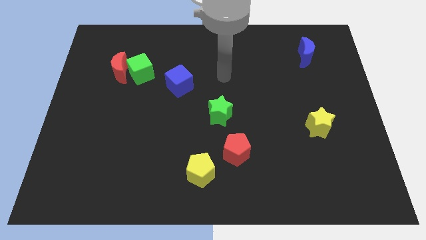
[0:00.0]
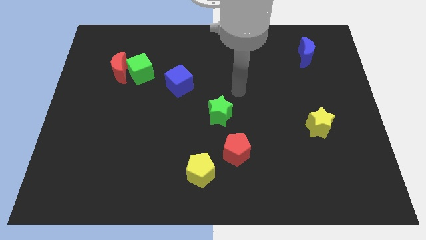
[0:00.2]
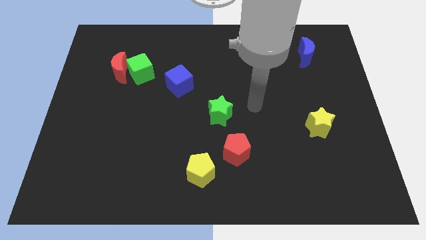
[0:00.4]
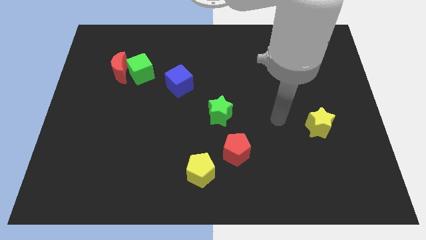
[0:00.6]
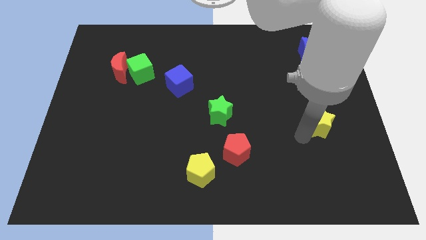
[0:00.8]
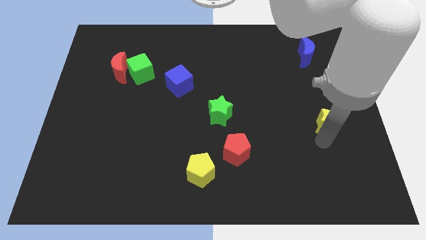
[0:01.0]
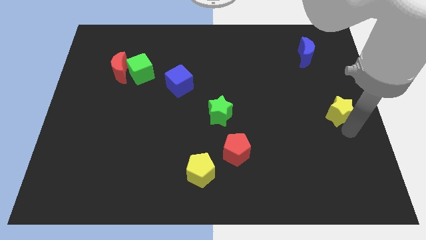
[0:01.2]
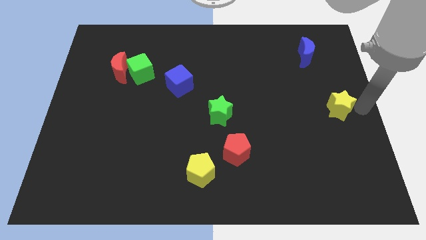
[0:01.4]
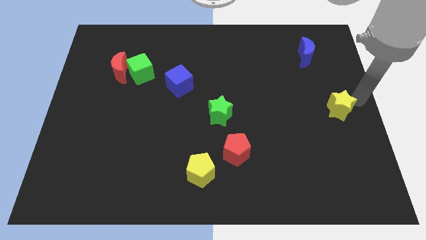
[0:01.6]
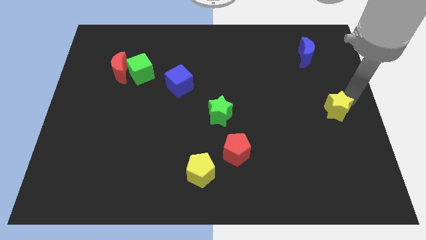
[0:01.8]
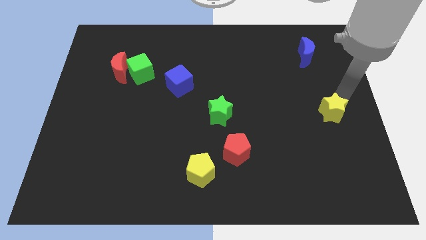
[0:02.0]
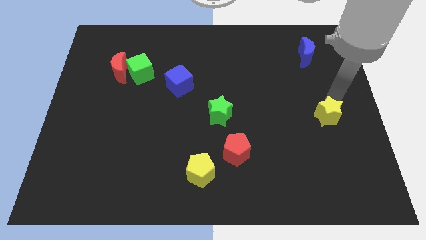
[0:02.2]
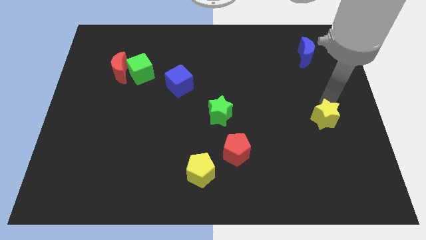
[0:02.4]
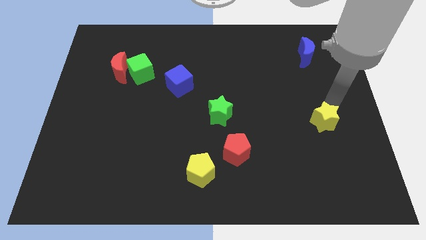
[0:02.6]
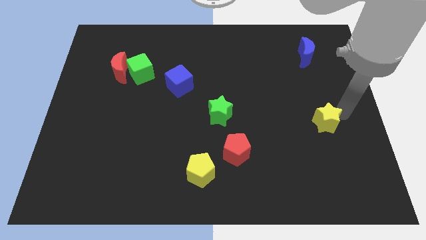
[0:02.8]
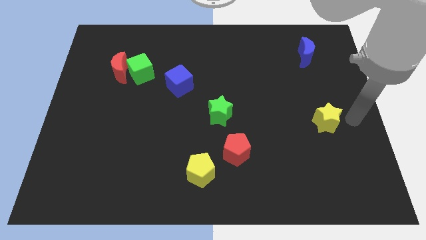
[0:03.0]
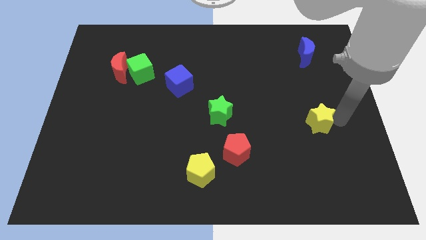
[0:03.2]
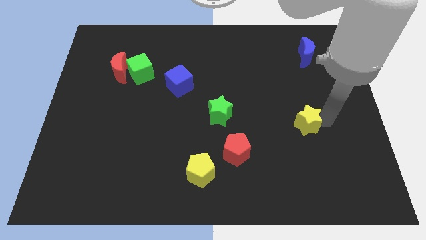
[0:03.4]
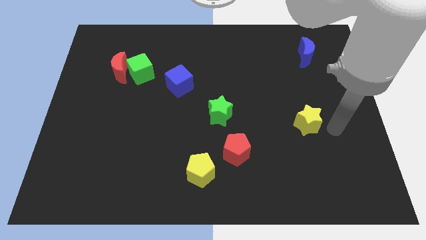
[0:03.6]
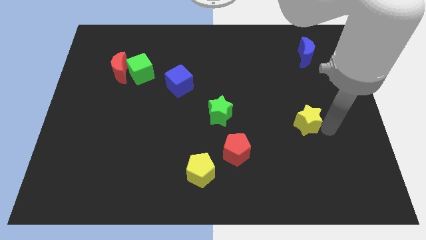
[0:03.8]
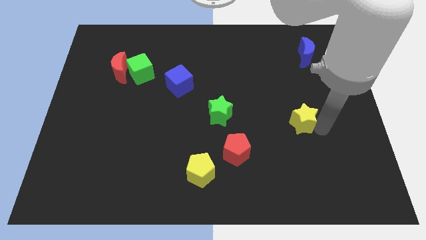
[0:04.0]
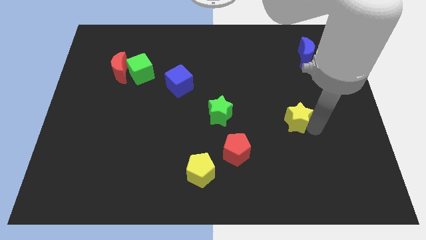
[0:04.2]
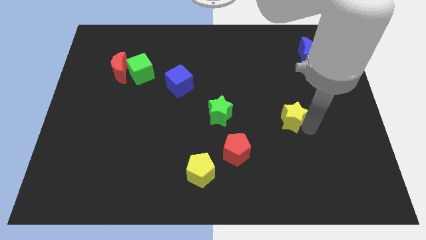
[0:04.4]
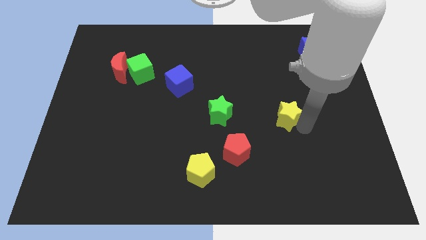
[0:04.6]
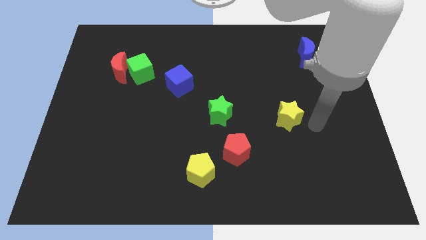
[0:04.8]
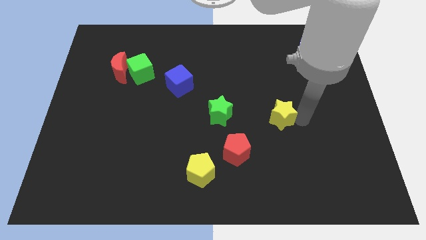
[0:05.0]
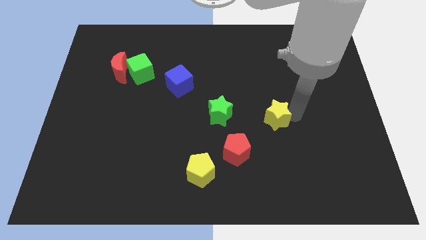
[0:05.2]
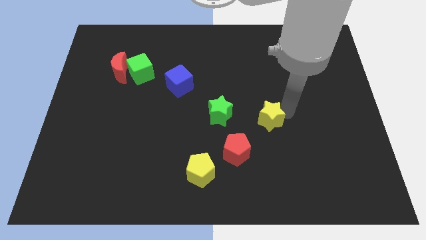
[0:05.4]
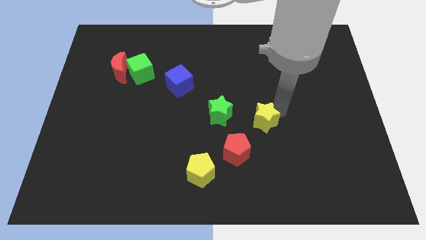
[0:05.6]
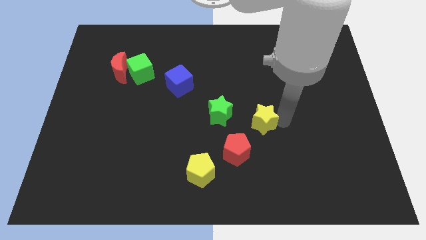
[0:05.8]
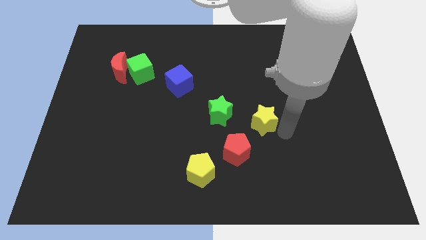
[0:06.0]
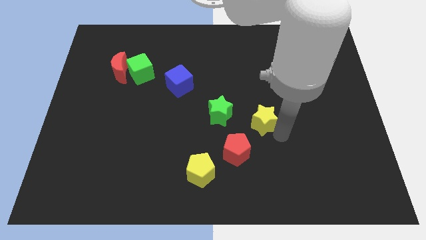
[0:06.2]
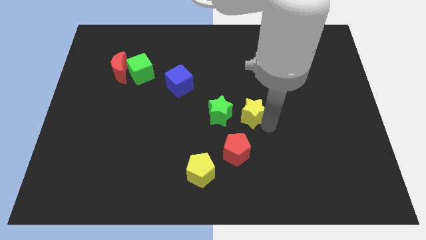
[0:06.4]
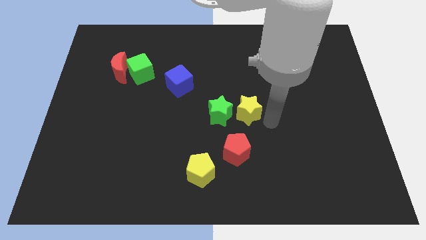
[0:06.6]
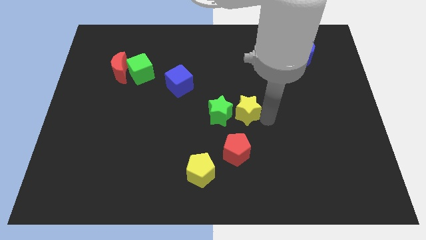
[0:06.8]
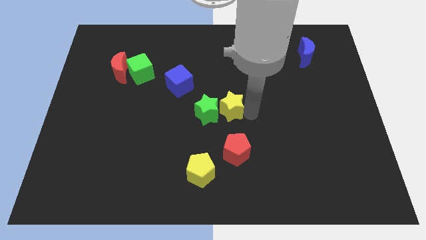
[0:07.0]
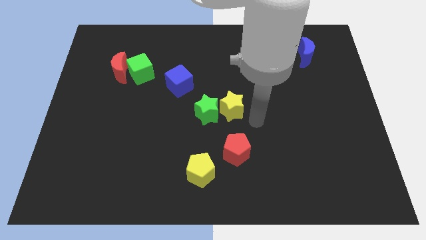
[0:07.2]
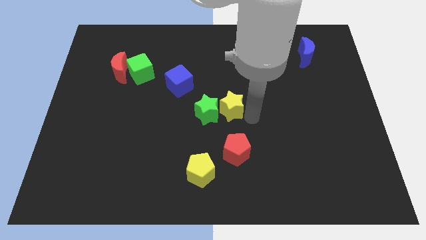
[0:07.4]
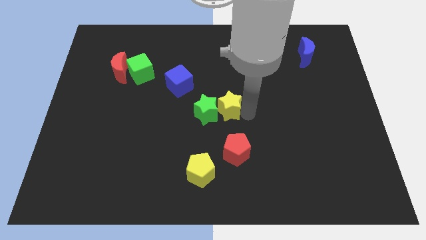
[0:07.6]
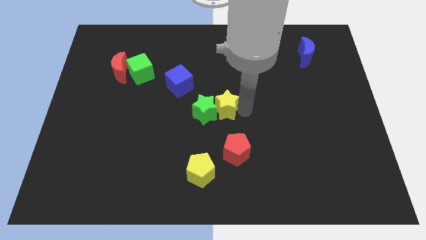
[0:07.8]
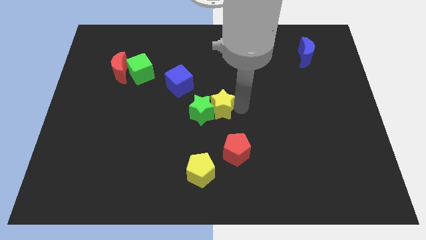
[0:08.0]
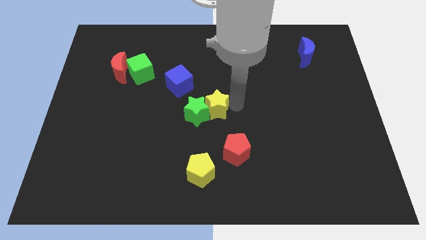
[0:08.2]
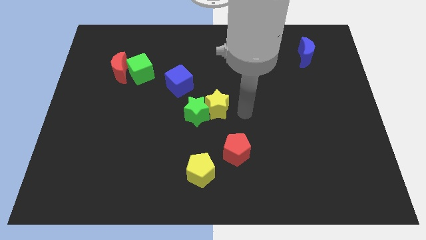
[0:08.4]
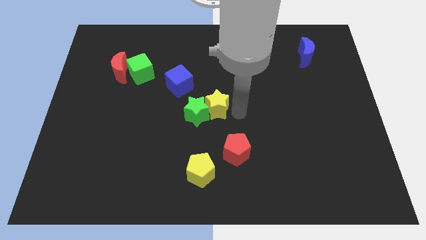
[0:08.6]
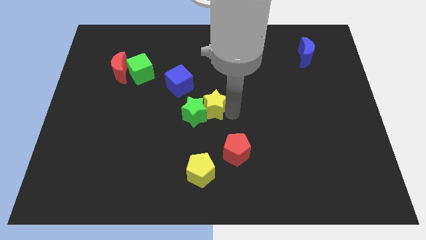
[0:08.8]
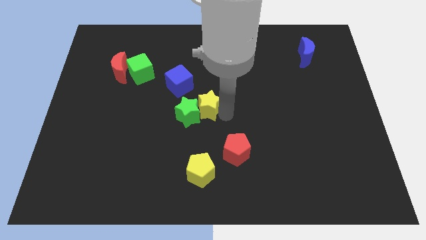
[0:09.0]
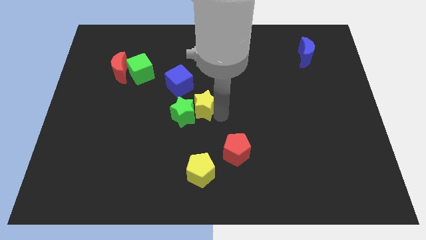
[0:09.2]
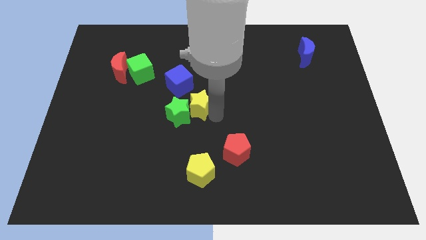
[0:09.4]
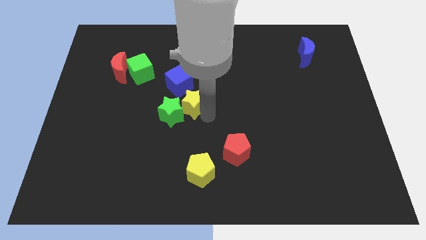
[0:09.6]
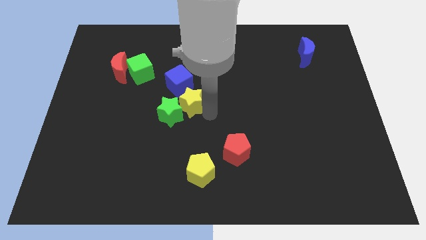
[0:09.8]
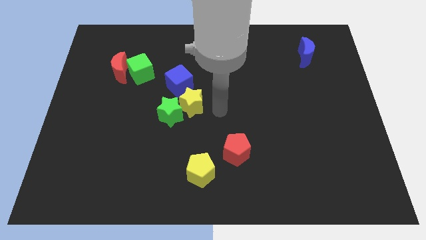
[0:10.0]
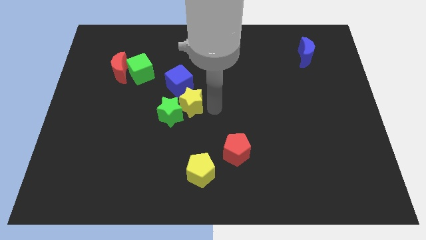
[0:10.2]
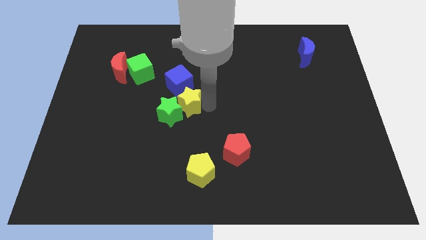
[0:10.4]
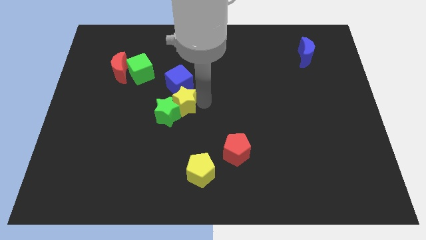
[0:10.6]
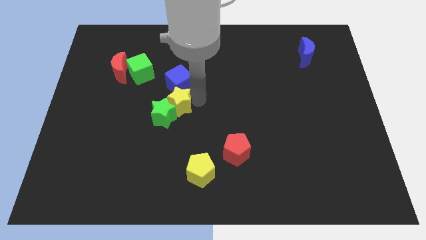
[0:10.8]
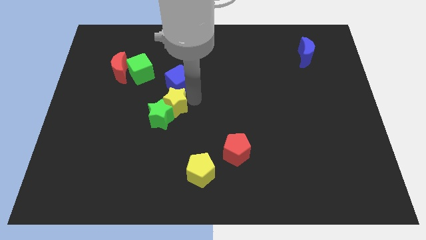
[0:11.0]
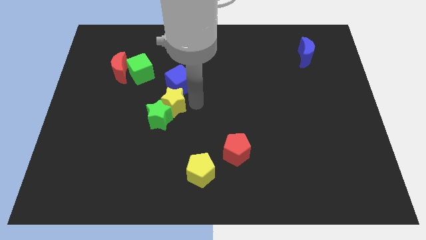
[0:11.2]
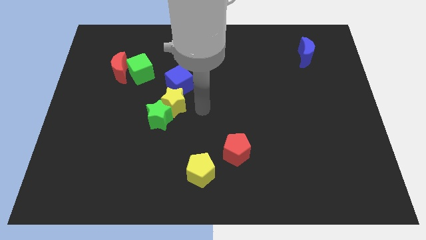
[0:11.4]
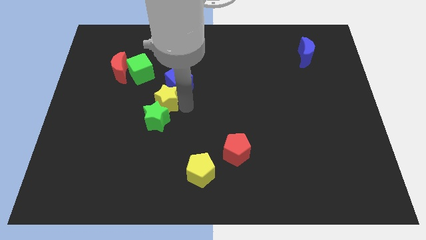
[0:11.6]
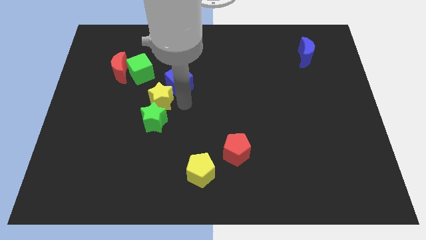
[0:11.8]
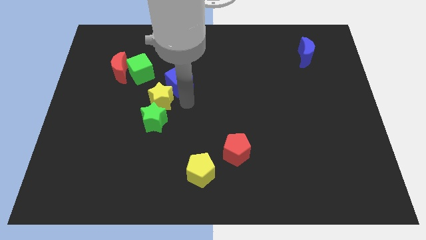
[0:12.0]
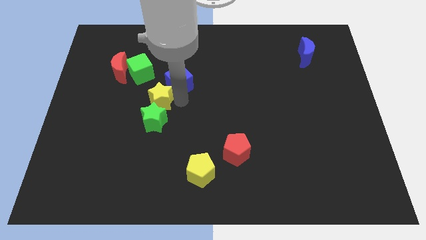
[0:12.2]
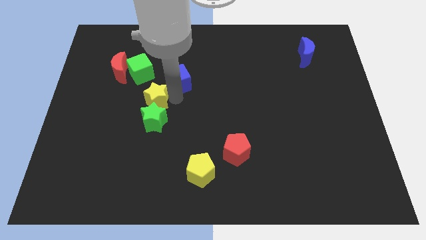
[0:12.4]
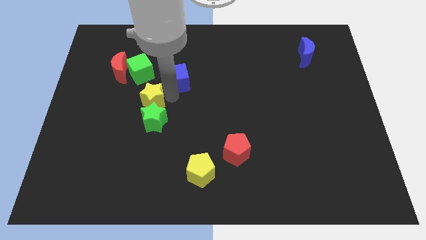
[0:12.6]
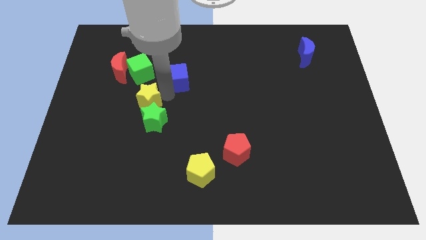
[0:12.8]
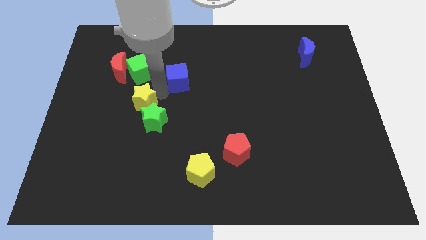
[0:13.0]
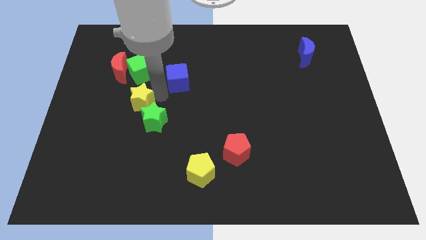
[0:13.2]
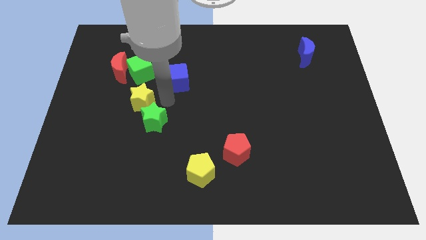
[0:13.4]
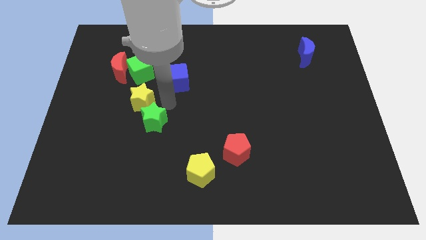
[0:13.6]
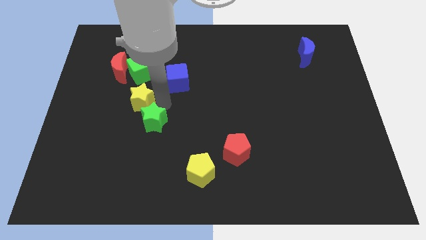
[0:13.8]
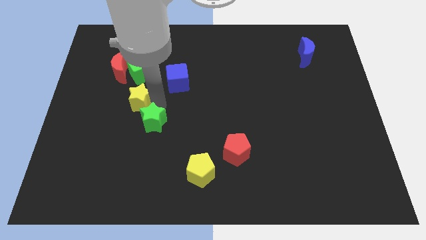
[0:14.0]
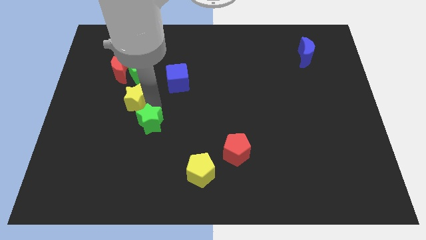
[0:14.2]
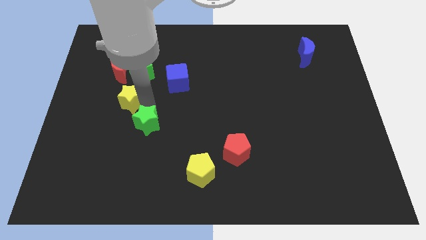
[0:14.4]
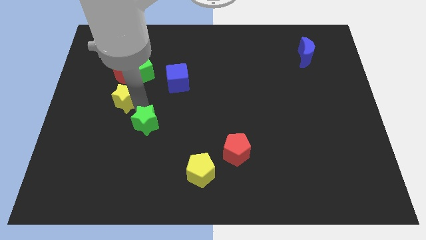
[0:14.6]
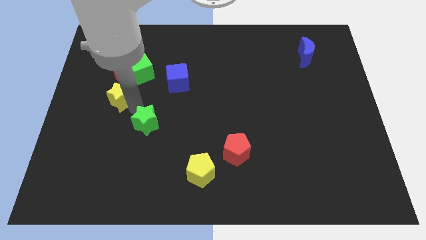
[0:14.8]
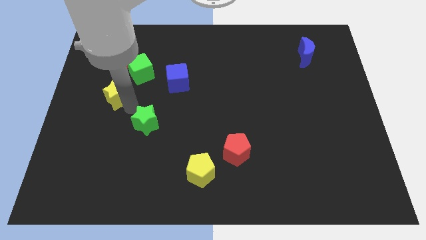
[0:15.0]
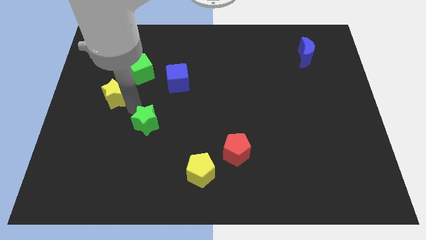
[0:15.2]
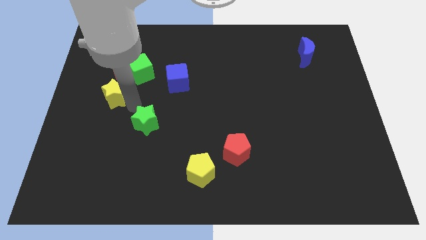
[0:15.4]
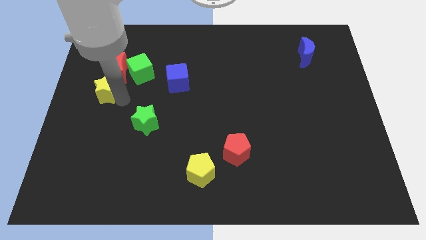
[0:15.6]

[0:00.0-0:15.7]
move the yellow star to the bottom left side of the red moon
